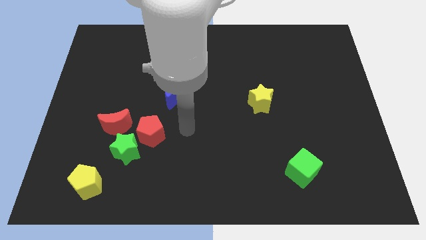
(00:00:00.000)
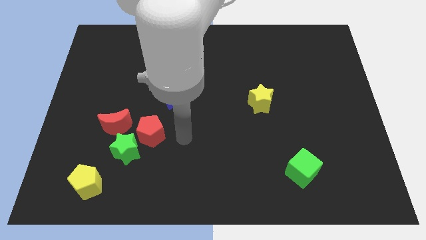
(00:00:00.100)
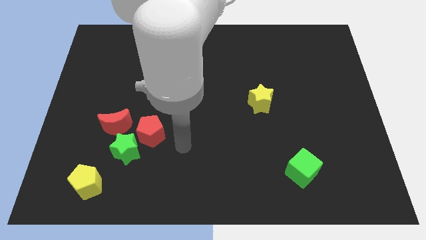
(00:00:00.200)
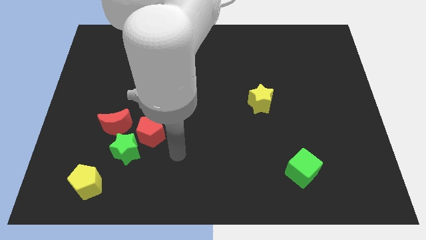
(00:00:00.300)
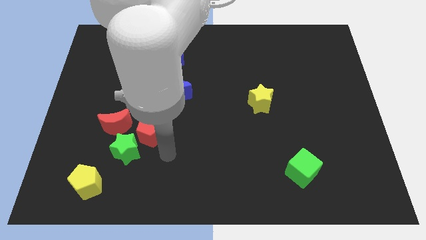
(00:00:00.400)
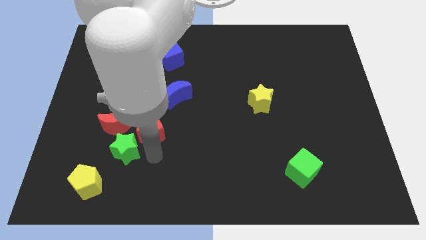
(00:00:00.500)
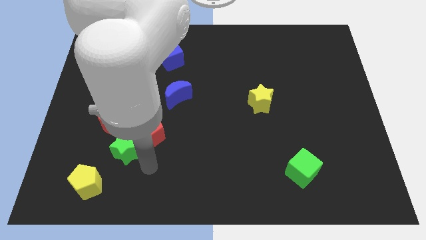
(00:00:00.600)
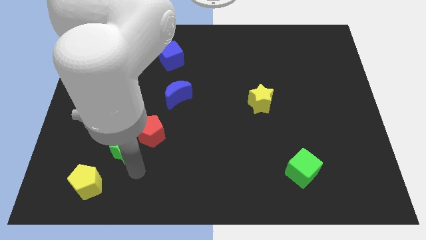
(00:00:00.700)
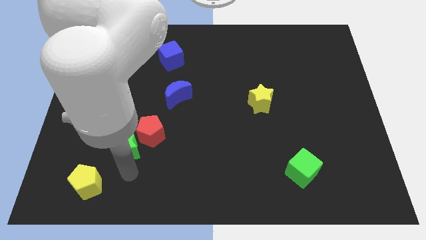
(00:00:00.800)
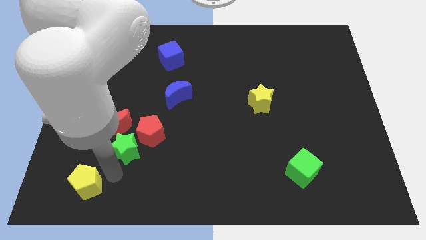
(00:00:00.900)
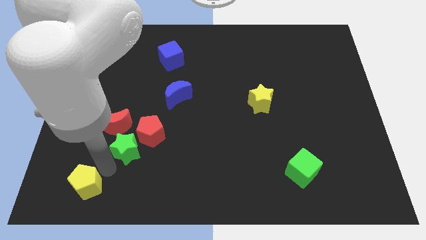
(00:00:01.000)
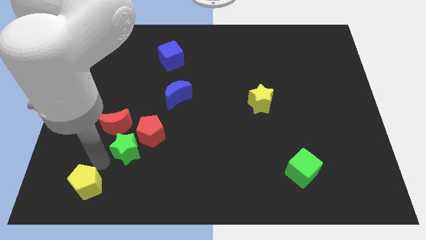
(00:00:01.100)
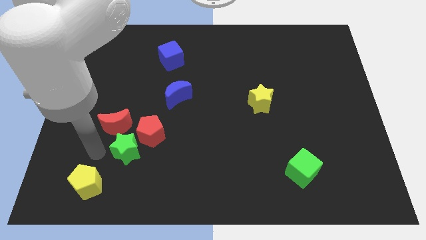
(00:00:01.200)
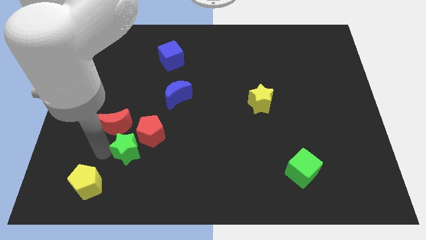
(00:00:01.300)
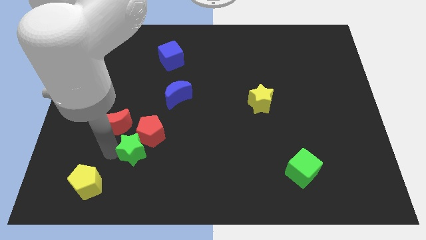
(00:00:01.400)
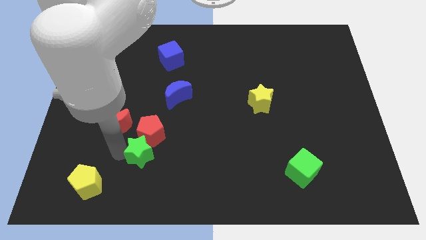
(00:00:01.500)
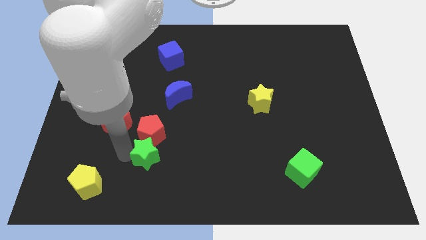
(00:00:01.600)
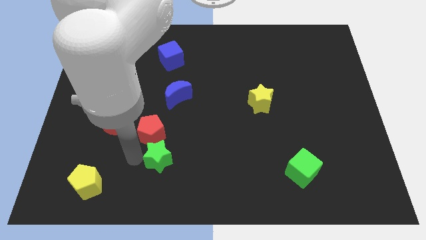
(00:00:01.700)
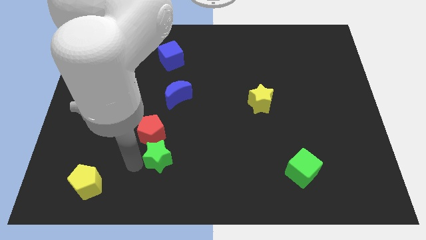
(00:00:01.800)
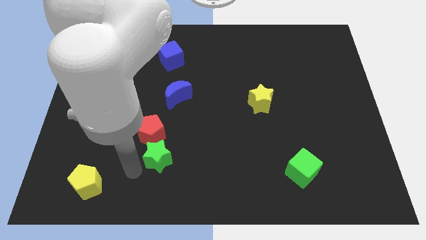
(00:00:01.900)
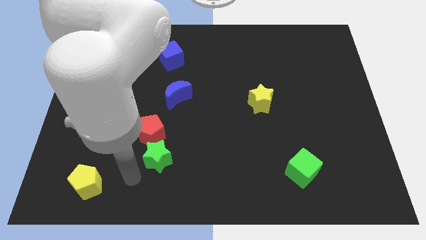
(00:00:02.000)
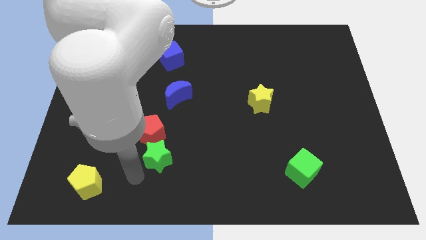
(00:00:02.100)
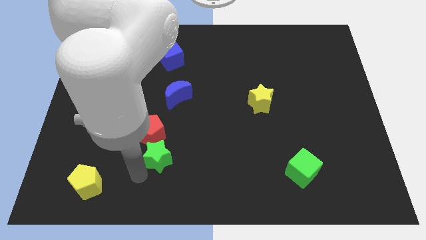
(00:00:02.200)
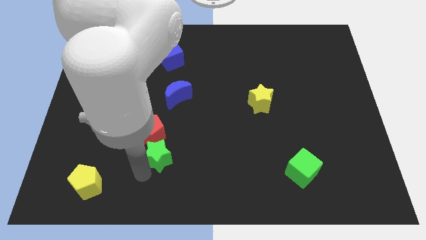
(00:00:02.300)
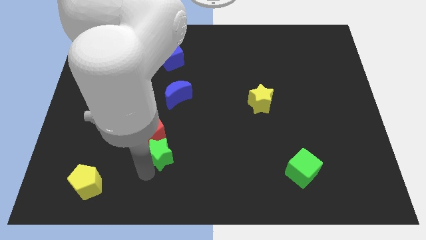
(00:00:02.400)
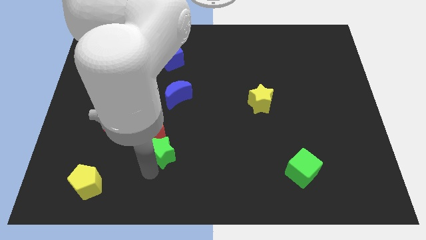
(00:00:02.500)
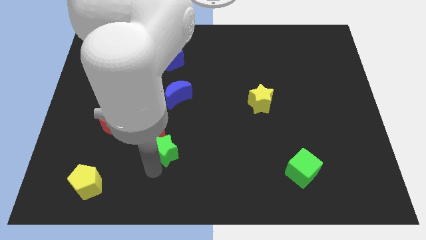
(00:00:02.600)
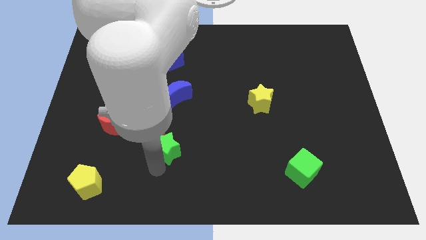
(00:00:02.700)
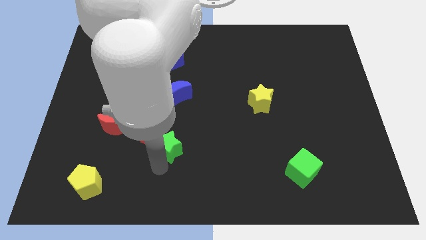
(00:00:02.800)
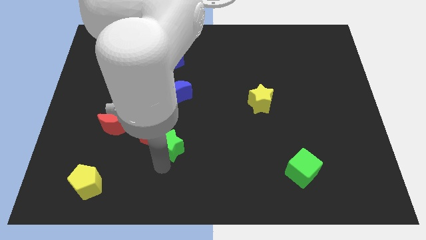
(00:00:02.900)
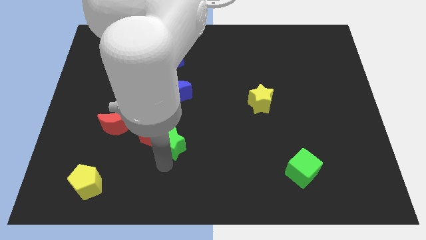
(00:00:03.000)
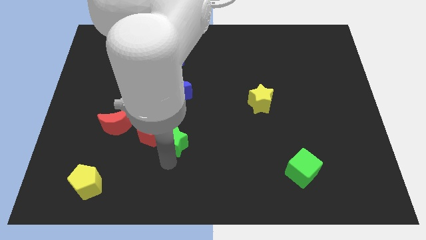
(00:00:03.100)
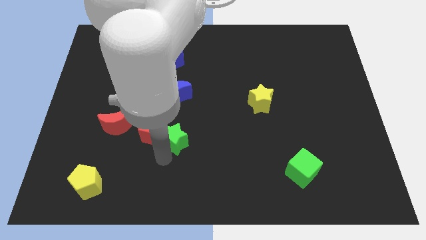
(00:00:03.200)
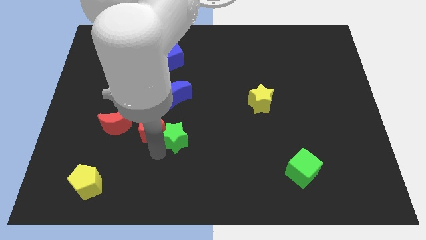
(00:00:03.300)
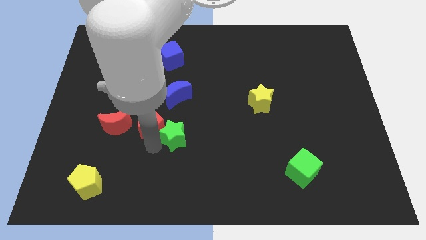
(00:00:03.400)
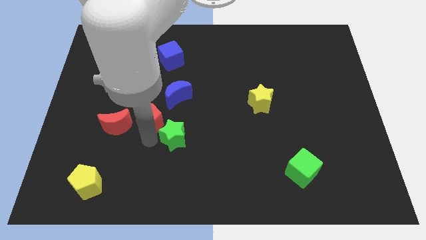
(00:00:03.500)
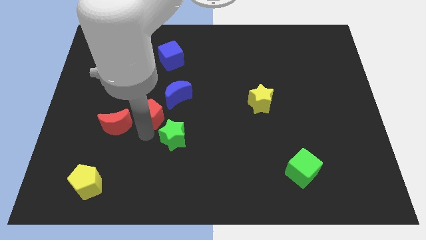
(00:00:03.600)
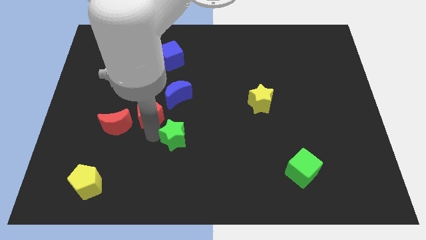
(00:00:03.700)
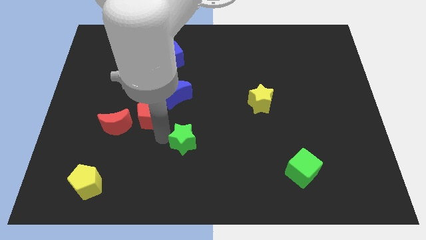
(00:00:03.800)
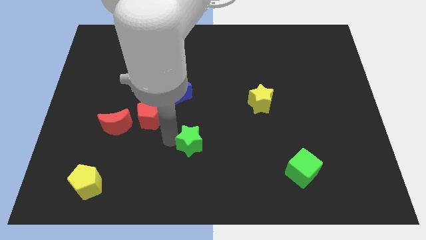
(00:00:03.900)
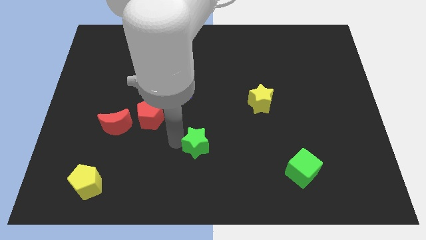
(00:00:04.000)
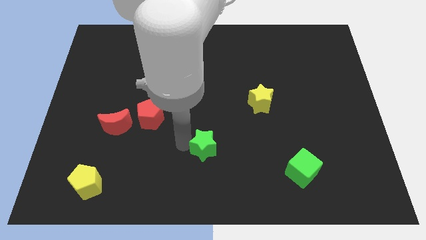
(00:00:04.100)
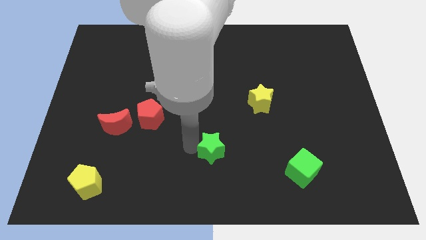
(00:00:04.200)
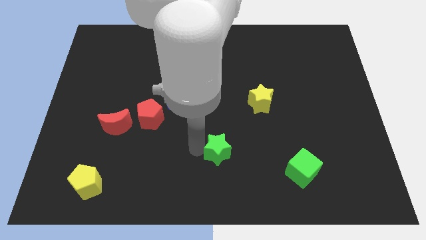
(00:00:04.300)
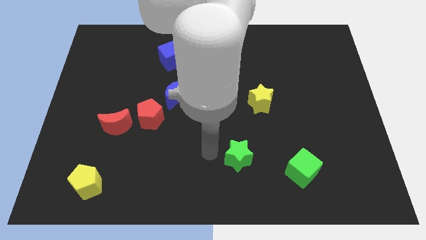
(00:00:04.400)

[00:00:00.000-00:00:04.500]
move the green star to the right

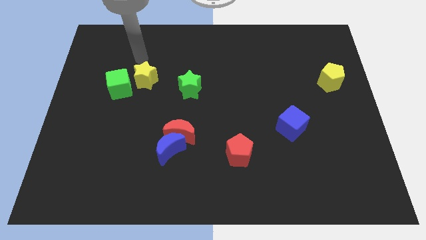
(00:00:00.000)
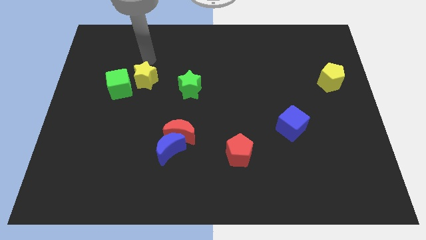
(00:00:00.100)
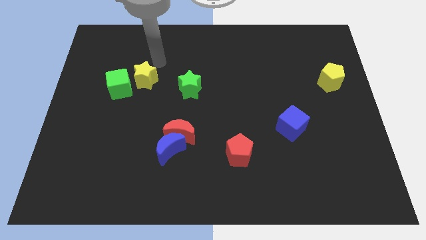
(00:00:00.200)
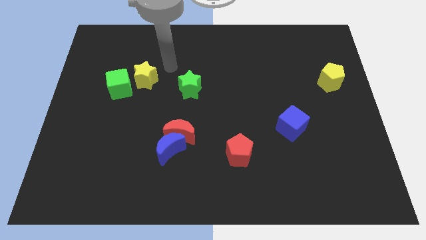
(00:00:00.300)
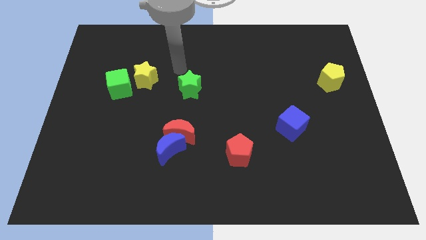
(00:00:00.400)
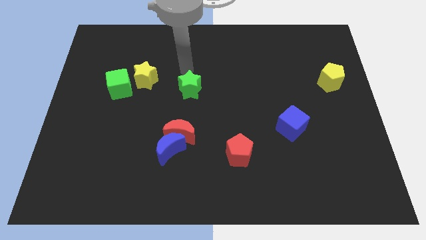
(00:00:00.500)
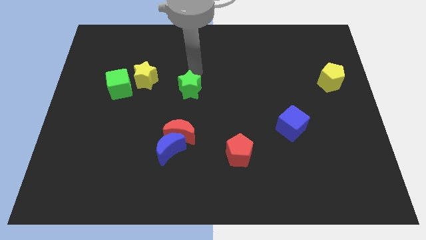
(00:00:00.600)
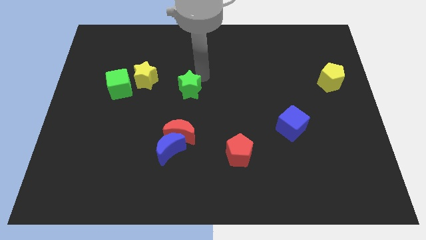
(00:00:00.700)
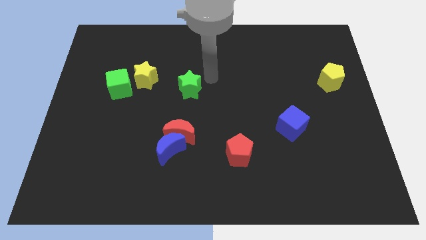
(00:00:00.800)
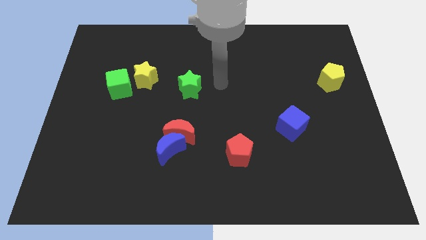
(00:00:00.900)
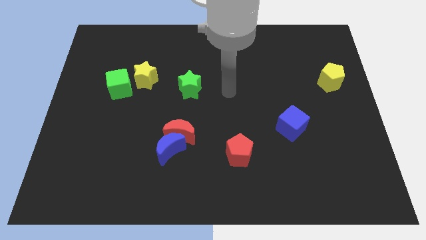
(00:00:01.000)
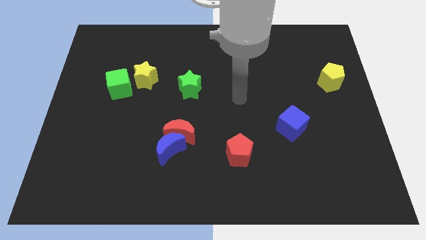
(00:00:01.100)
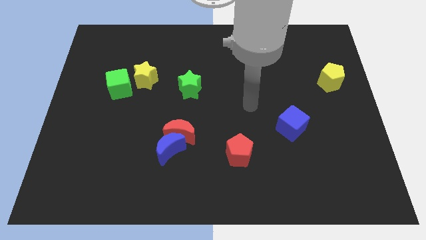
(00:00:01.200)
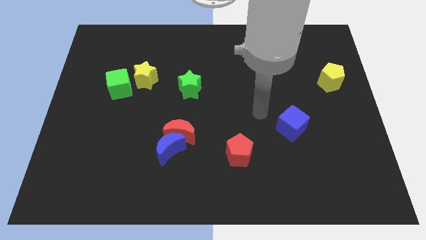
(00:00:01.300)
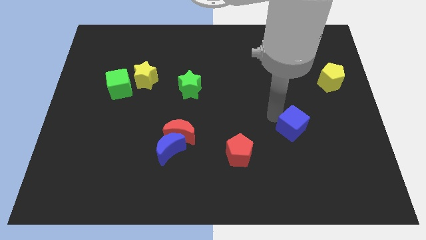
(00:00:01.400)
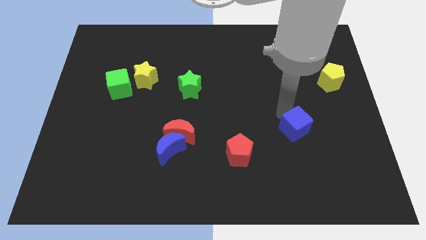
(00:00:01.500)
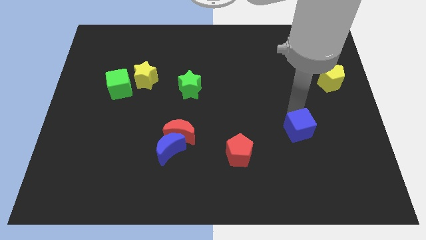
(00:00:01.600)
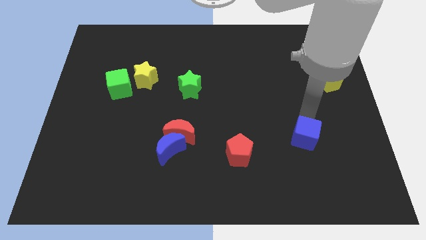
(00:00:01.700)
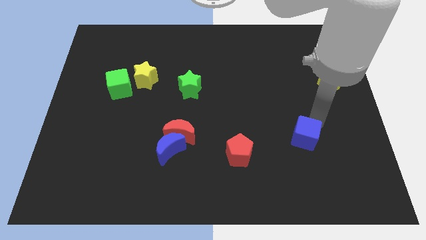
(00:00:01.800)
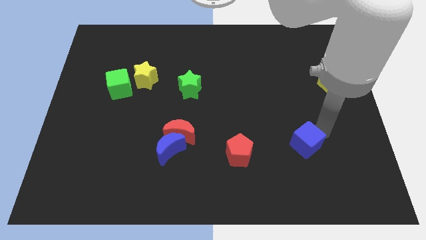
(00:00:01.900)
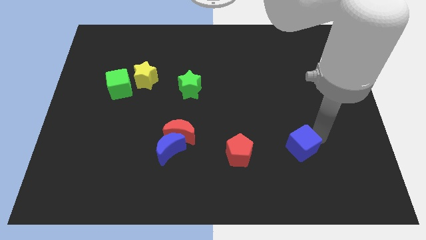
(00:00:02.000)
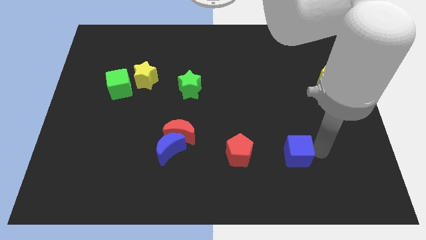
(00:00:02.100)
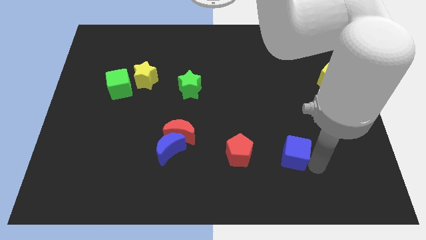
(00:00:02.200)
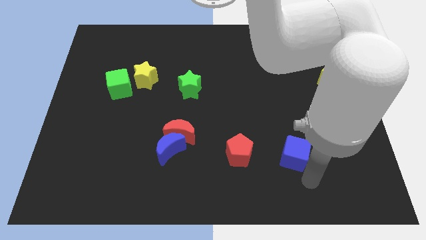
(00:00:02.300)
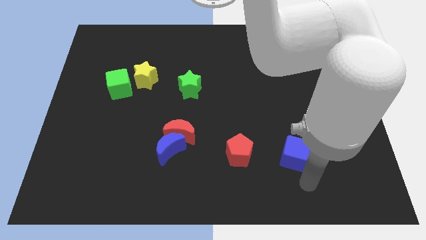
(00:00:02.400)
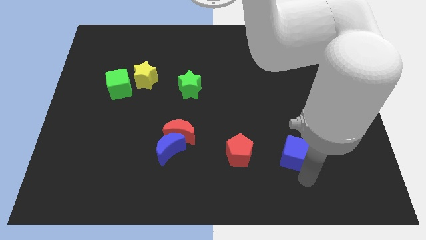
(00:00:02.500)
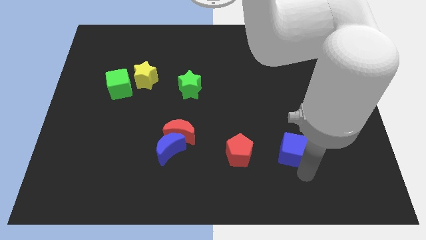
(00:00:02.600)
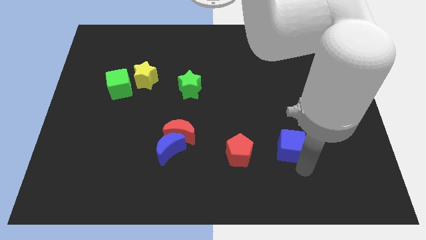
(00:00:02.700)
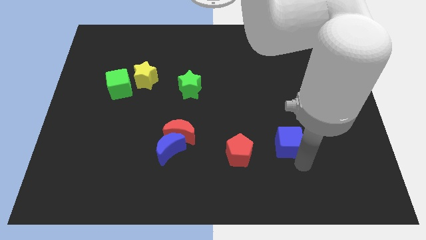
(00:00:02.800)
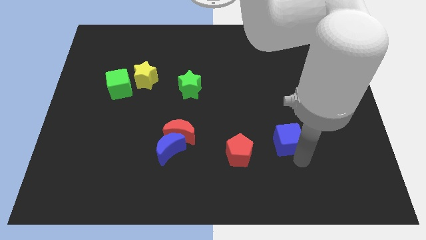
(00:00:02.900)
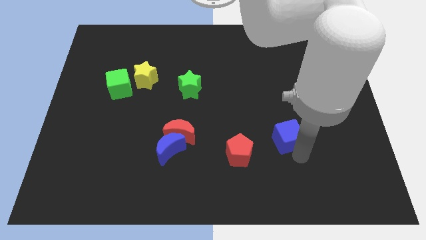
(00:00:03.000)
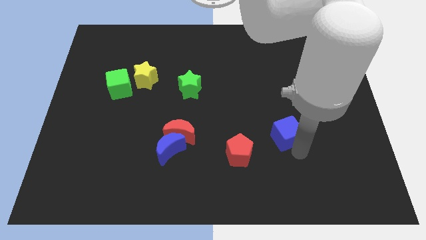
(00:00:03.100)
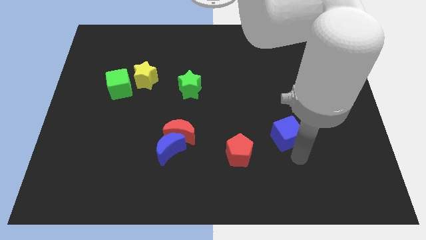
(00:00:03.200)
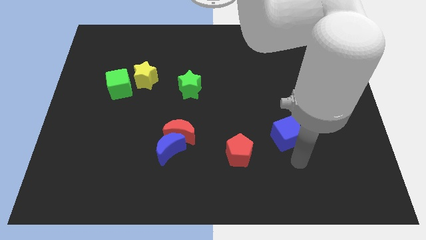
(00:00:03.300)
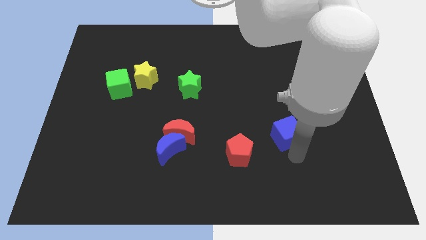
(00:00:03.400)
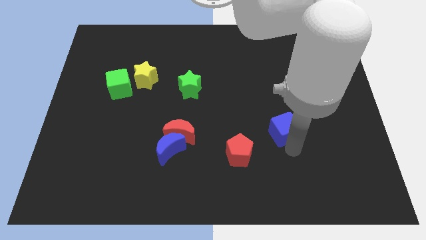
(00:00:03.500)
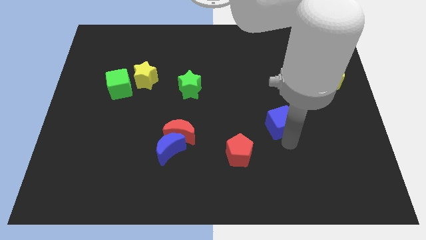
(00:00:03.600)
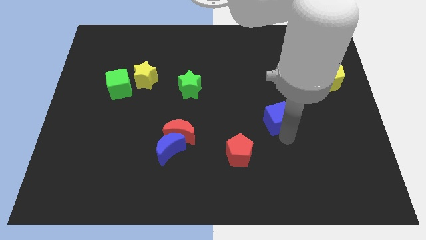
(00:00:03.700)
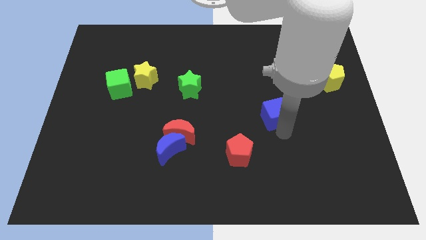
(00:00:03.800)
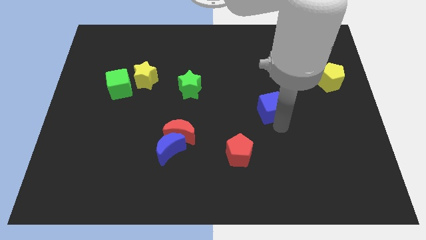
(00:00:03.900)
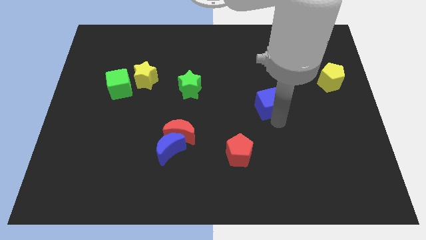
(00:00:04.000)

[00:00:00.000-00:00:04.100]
slide the blue cube upwards and left diagonally a bit
